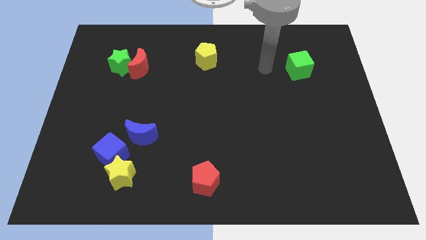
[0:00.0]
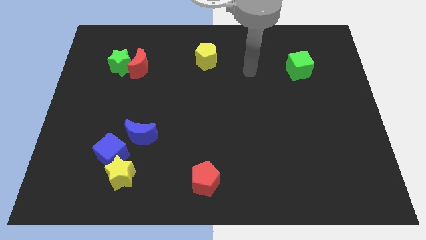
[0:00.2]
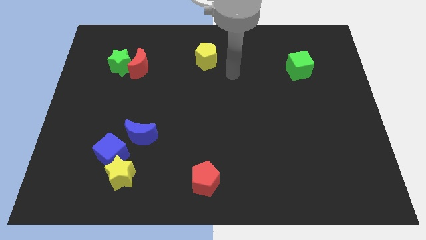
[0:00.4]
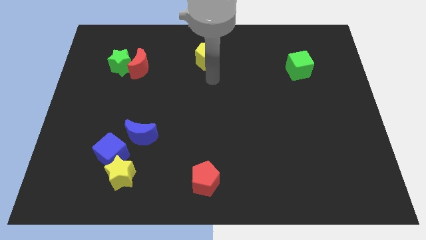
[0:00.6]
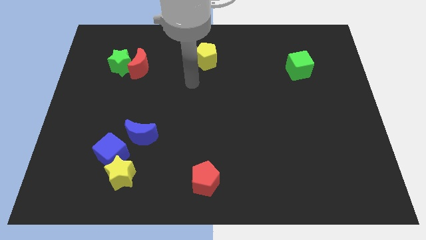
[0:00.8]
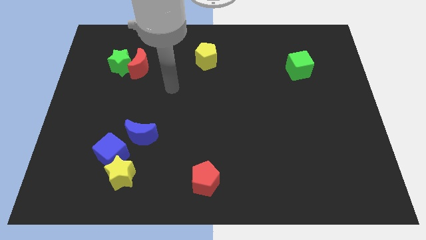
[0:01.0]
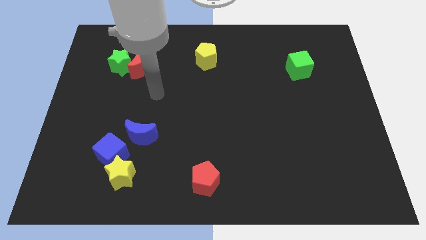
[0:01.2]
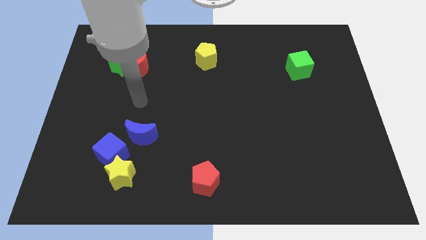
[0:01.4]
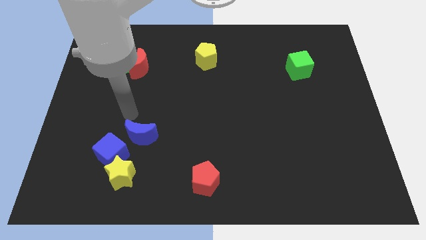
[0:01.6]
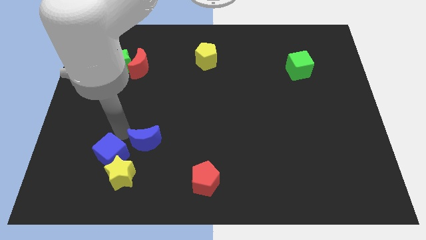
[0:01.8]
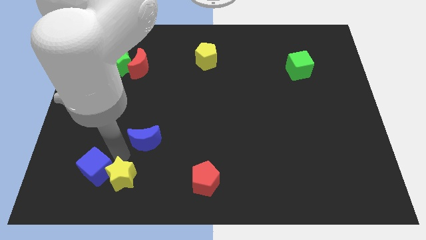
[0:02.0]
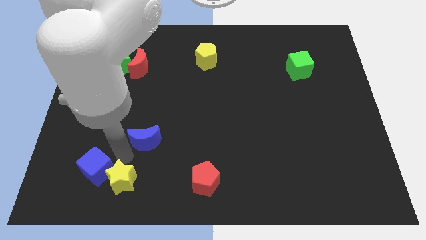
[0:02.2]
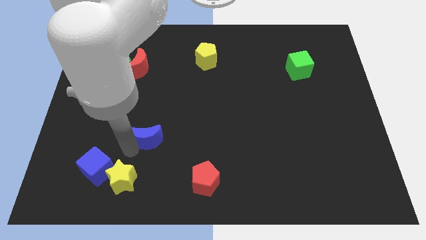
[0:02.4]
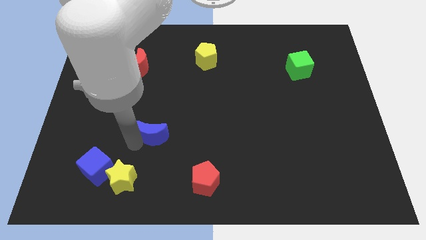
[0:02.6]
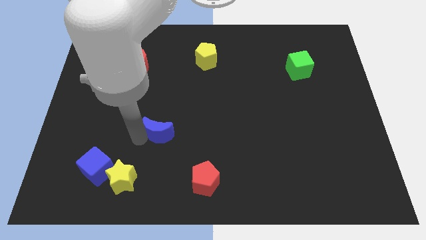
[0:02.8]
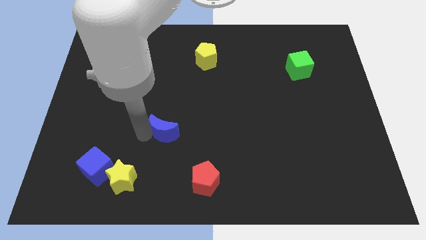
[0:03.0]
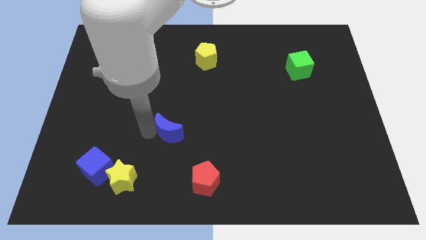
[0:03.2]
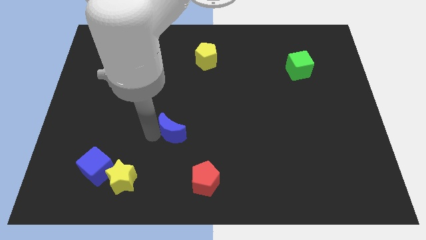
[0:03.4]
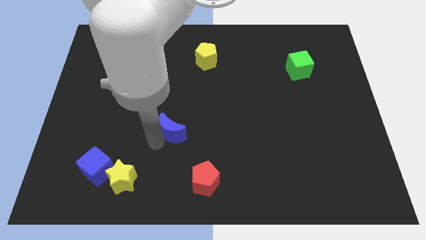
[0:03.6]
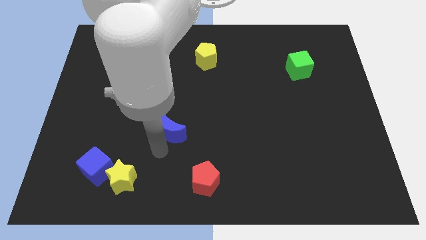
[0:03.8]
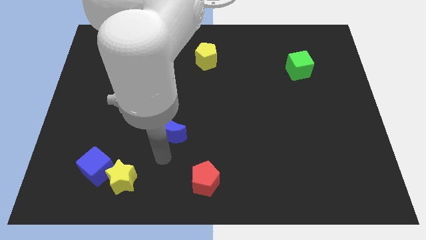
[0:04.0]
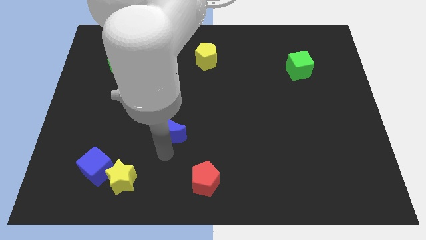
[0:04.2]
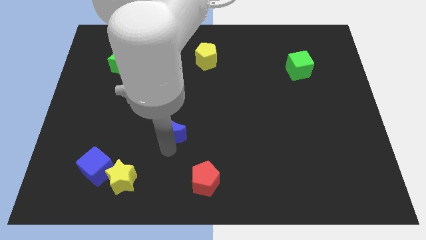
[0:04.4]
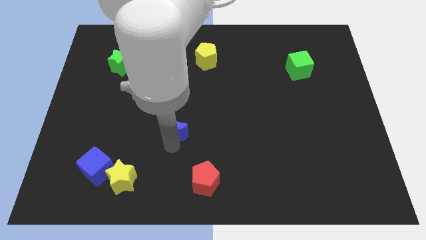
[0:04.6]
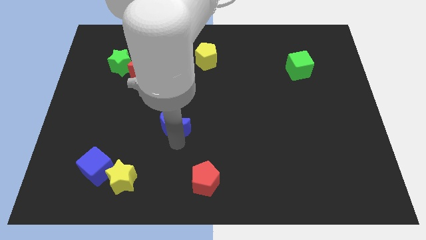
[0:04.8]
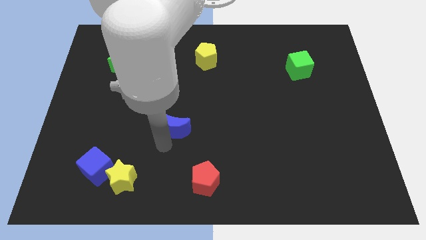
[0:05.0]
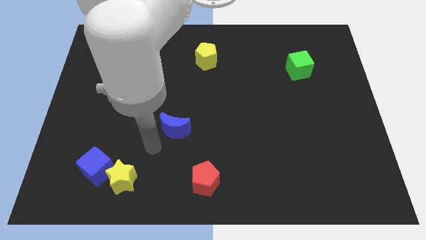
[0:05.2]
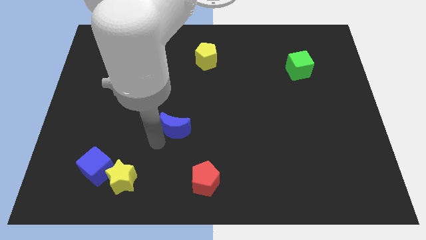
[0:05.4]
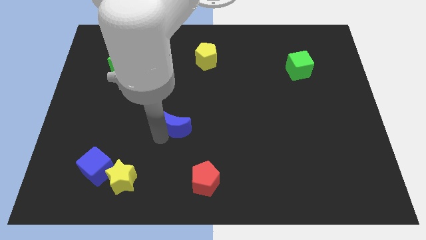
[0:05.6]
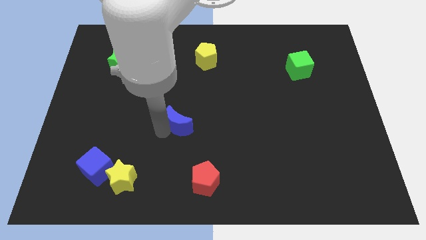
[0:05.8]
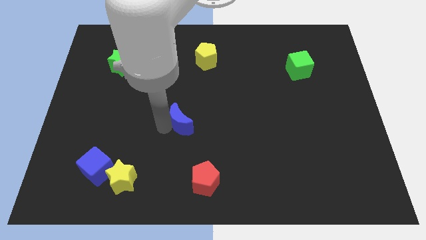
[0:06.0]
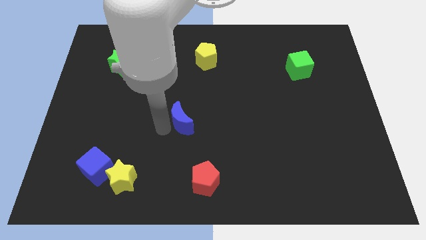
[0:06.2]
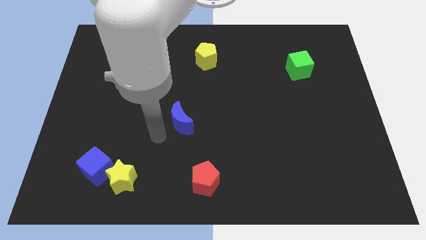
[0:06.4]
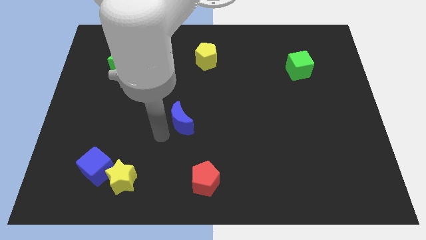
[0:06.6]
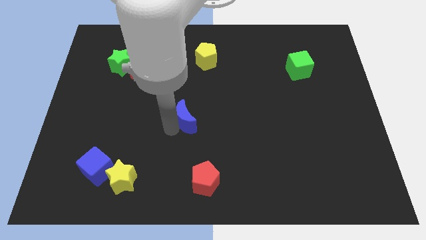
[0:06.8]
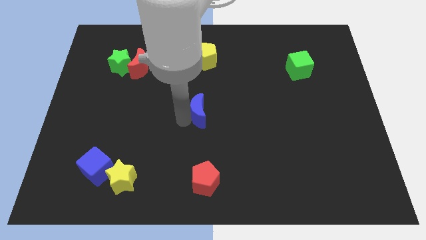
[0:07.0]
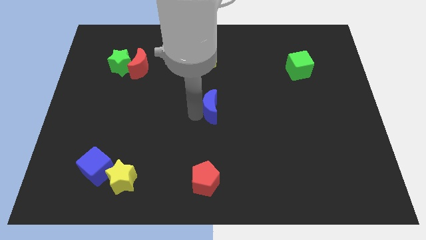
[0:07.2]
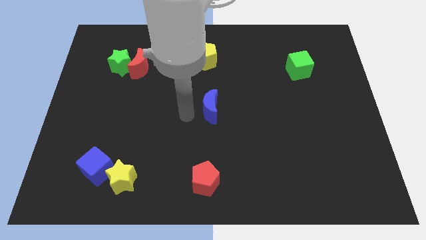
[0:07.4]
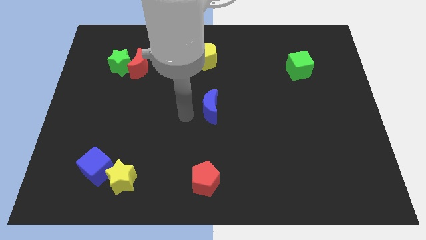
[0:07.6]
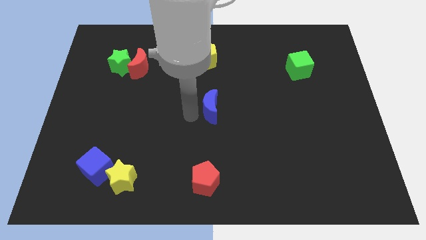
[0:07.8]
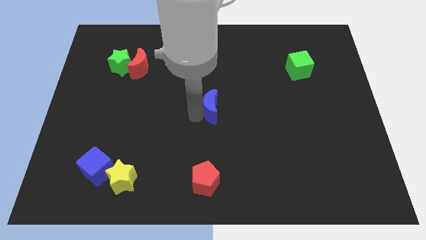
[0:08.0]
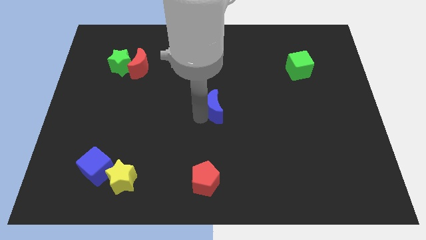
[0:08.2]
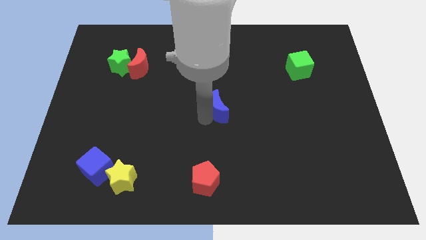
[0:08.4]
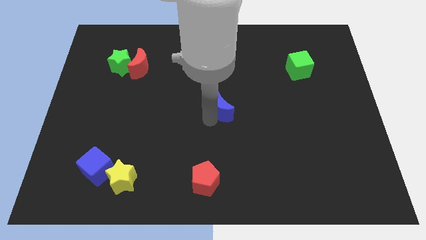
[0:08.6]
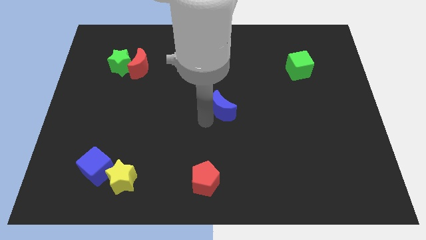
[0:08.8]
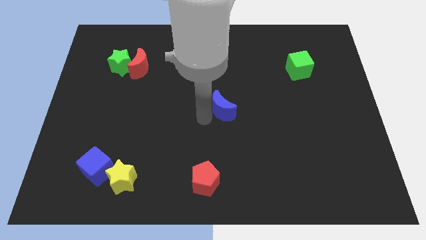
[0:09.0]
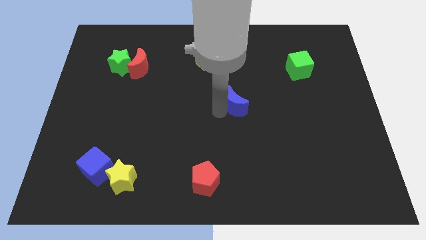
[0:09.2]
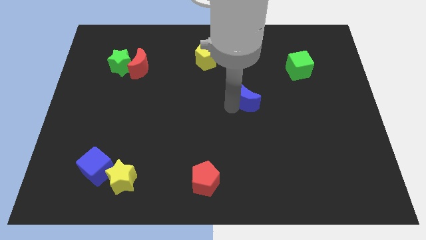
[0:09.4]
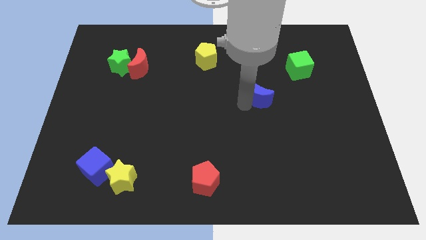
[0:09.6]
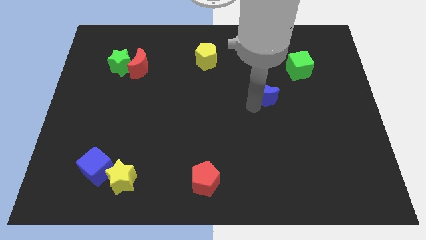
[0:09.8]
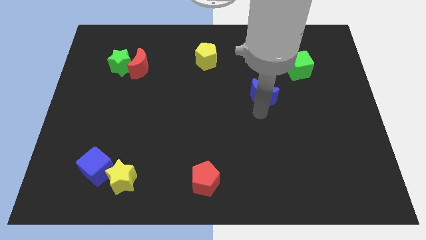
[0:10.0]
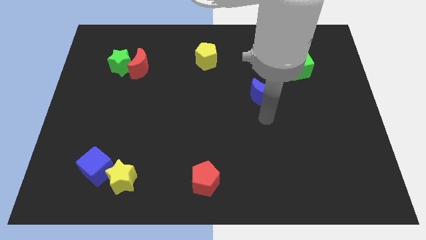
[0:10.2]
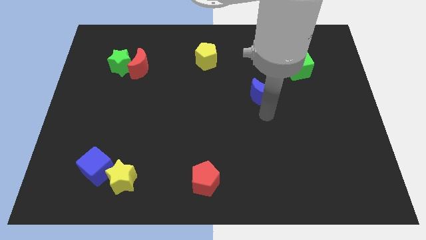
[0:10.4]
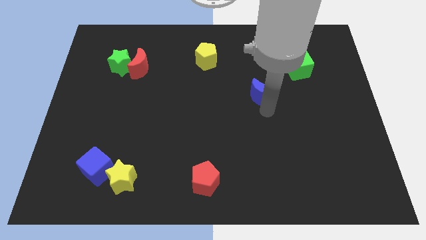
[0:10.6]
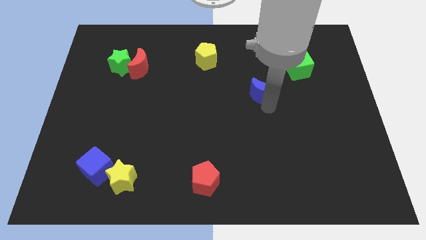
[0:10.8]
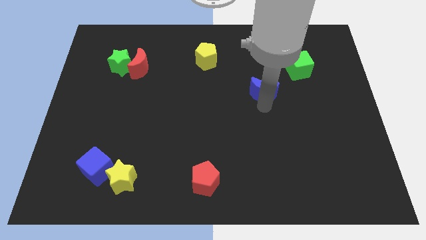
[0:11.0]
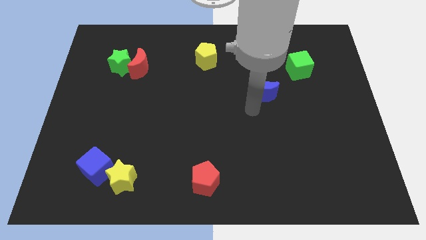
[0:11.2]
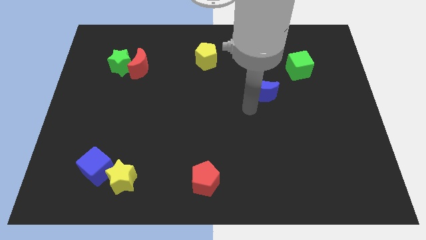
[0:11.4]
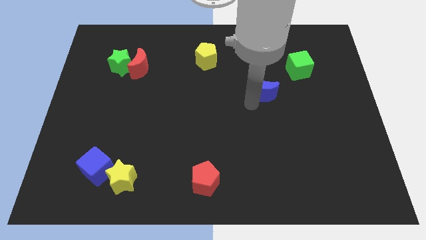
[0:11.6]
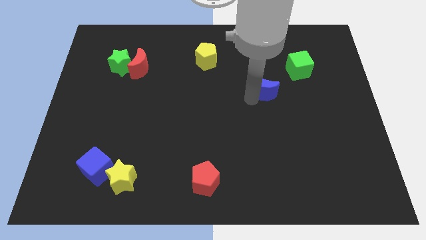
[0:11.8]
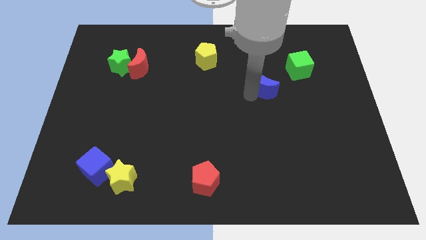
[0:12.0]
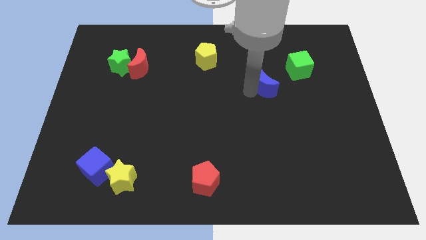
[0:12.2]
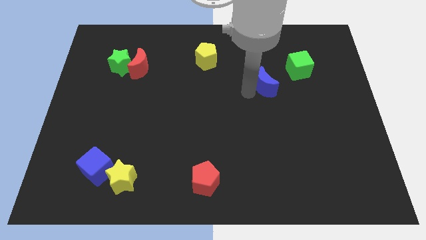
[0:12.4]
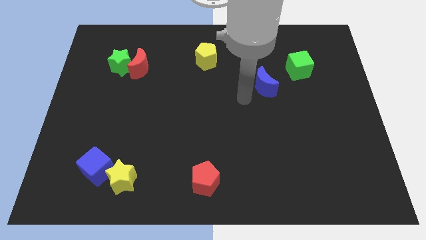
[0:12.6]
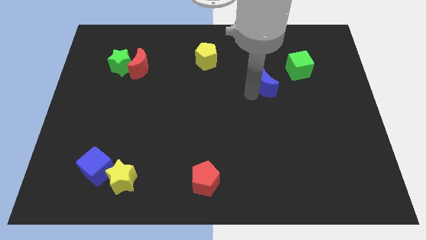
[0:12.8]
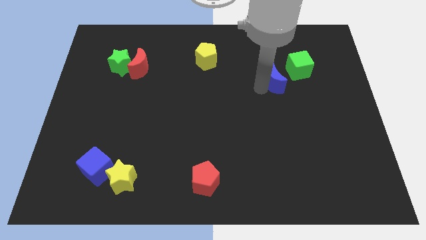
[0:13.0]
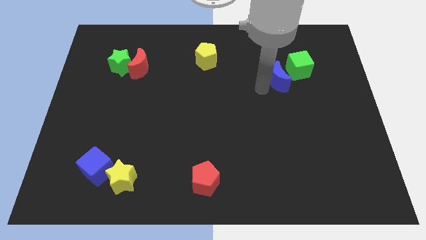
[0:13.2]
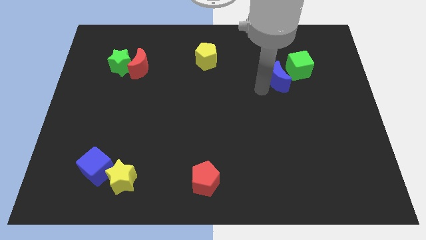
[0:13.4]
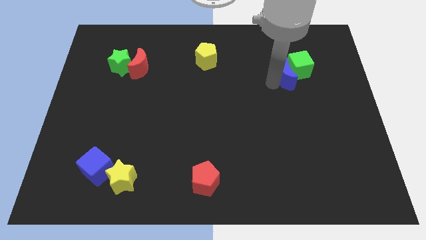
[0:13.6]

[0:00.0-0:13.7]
move the blue moon close to the green cube
